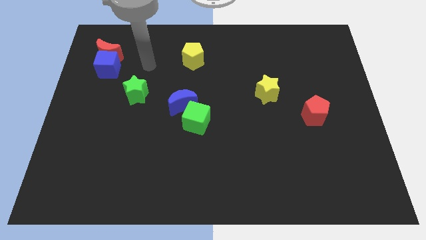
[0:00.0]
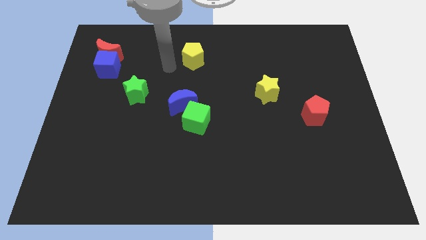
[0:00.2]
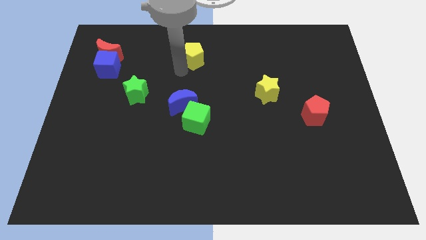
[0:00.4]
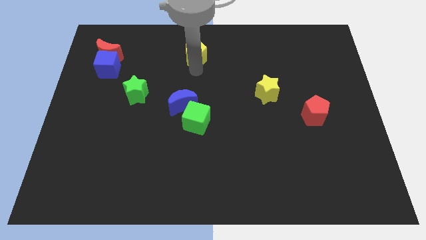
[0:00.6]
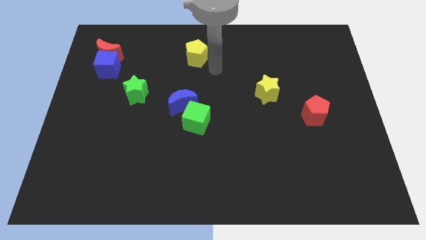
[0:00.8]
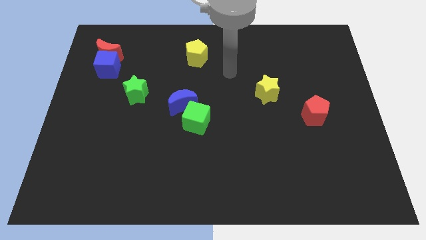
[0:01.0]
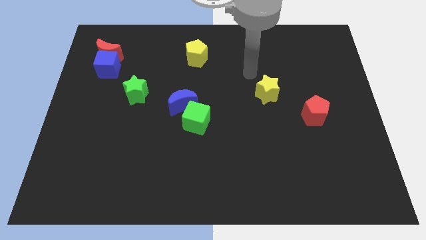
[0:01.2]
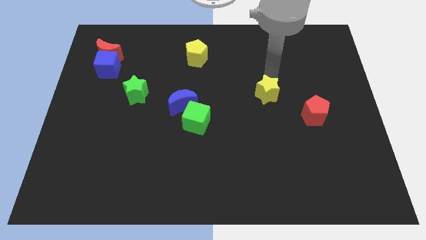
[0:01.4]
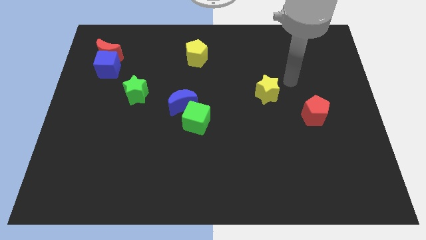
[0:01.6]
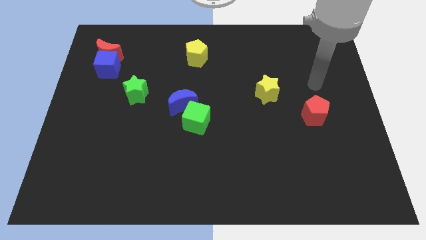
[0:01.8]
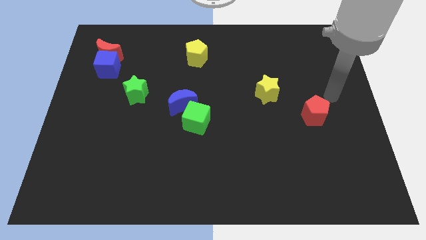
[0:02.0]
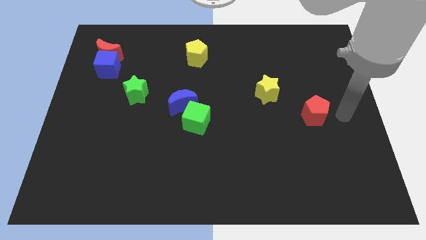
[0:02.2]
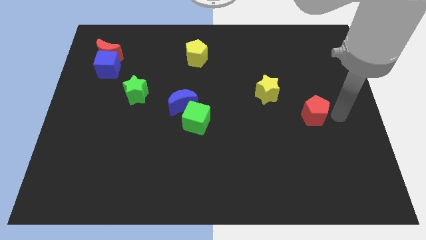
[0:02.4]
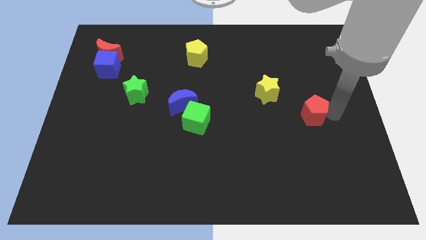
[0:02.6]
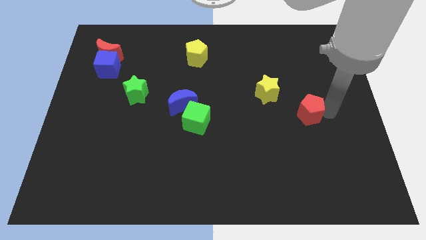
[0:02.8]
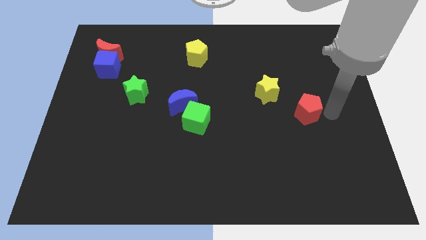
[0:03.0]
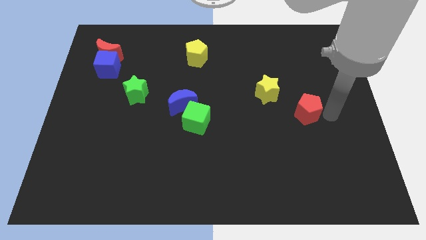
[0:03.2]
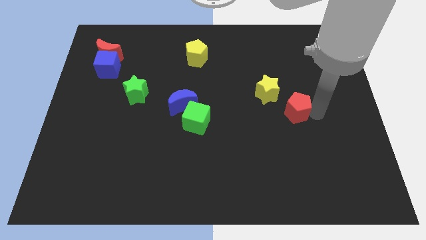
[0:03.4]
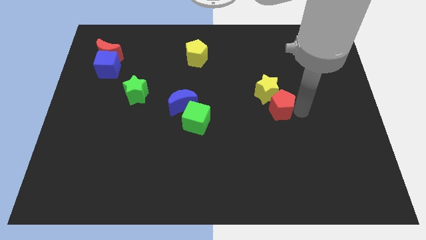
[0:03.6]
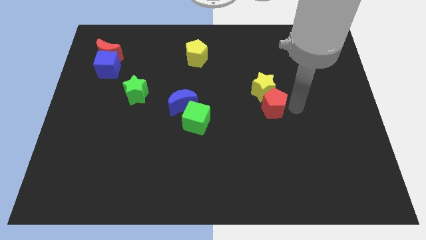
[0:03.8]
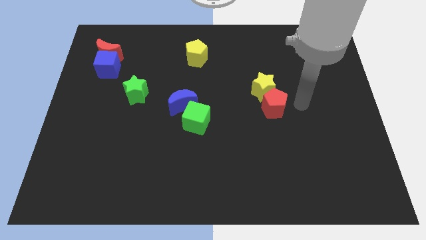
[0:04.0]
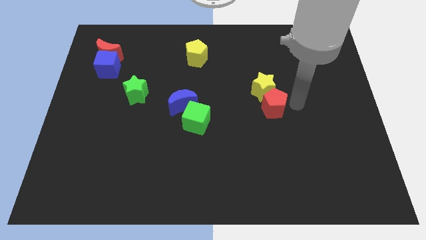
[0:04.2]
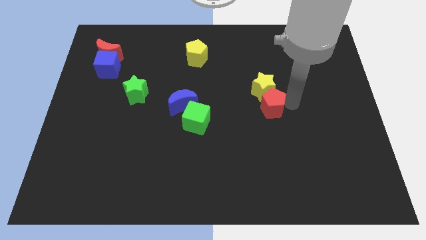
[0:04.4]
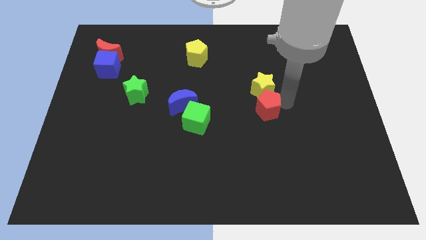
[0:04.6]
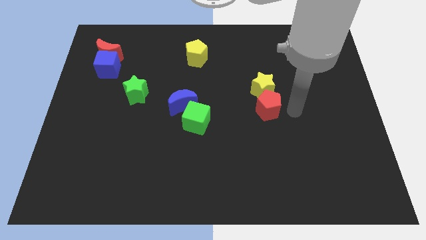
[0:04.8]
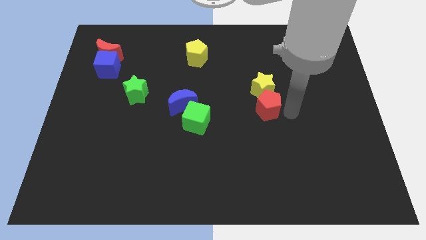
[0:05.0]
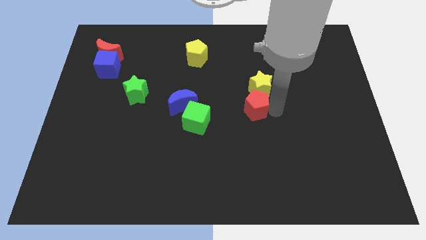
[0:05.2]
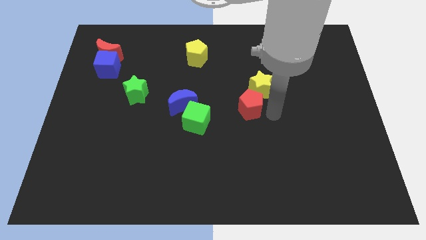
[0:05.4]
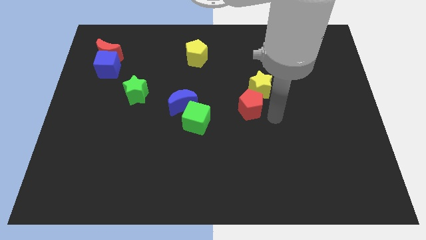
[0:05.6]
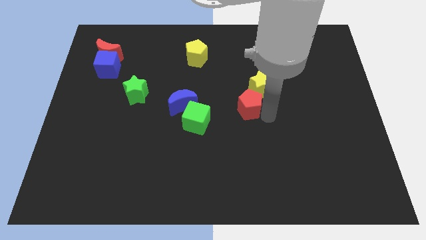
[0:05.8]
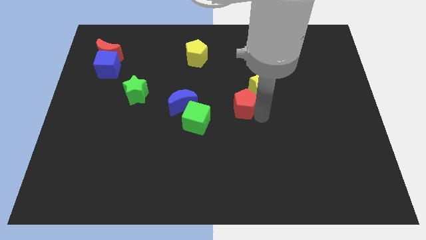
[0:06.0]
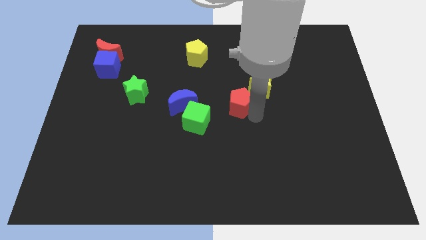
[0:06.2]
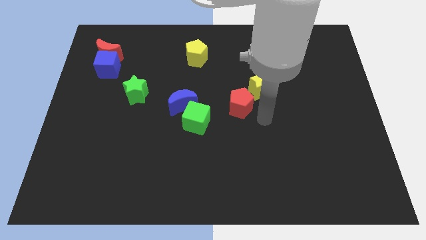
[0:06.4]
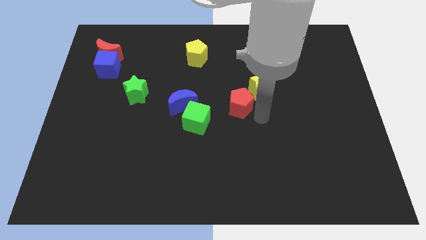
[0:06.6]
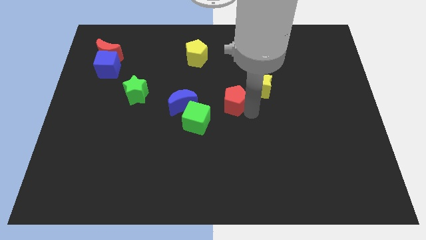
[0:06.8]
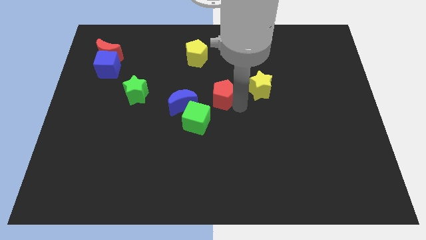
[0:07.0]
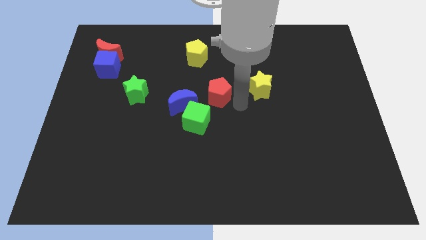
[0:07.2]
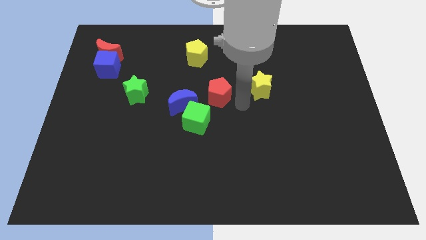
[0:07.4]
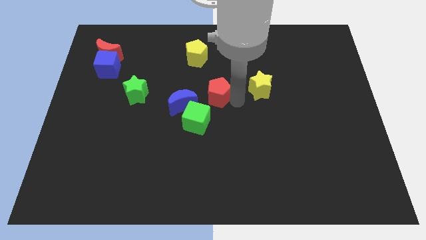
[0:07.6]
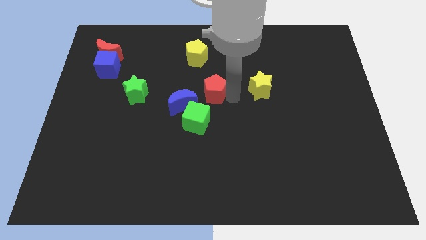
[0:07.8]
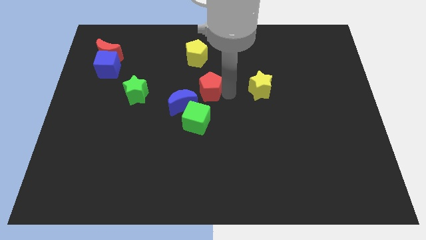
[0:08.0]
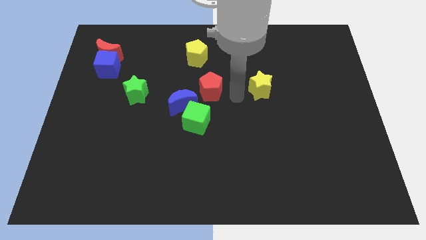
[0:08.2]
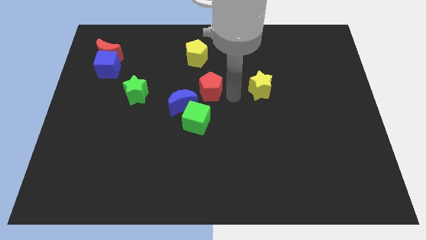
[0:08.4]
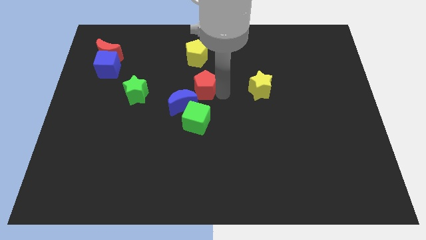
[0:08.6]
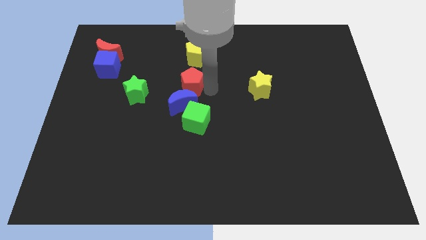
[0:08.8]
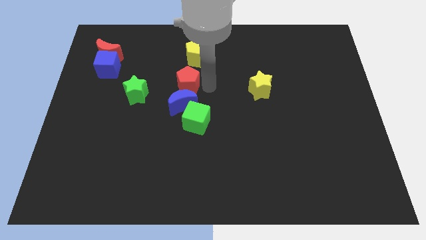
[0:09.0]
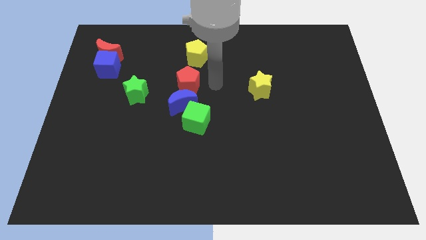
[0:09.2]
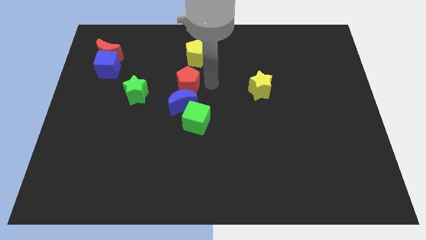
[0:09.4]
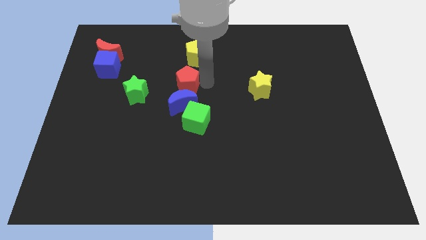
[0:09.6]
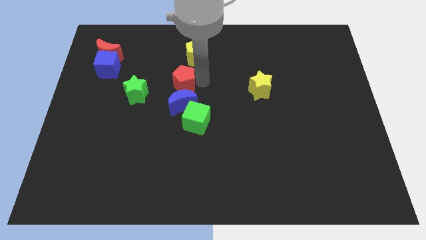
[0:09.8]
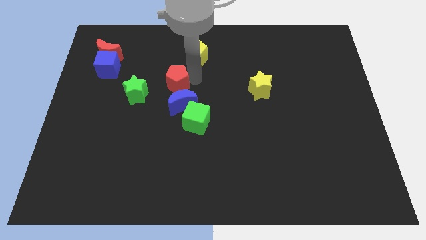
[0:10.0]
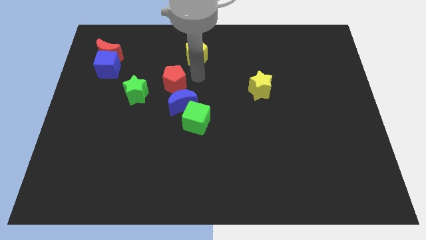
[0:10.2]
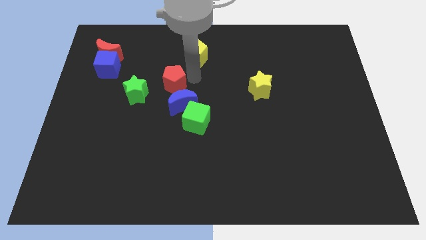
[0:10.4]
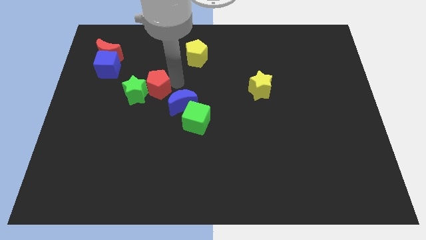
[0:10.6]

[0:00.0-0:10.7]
put the red pentagon towards the green star
